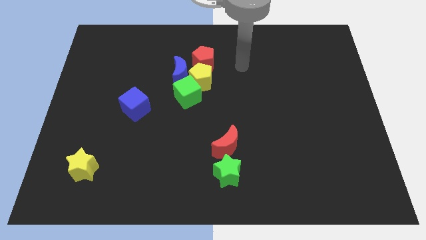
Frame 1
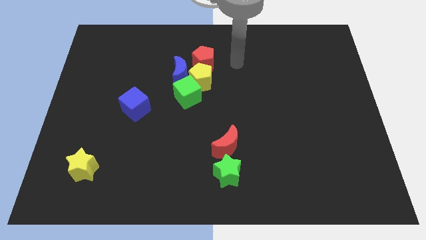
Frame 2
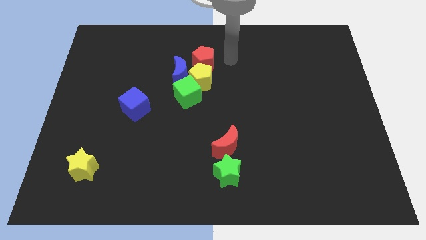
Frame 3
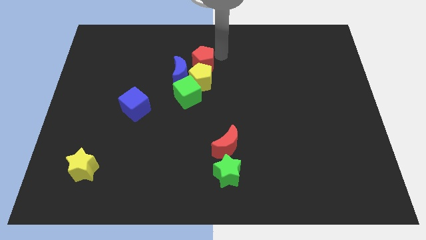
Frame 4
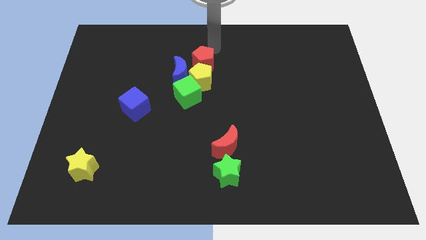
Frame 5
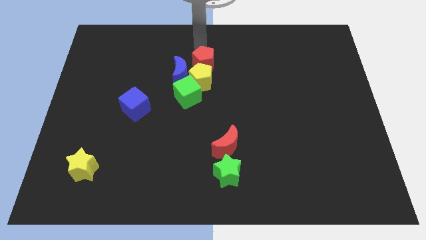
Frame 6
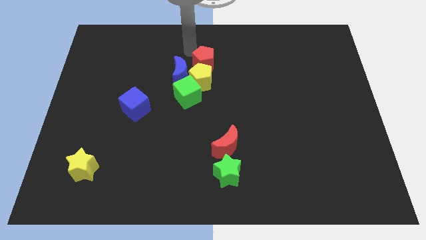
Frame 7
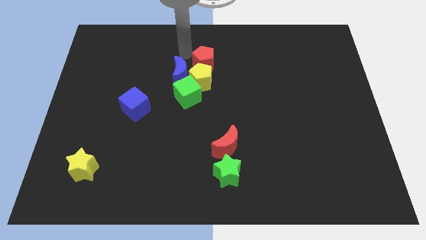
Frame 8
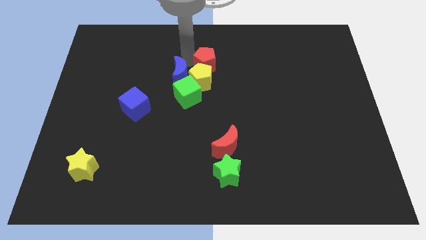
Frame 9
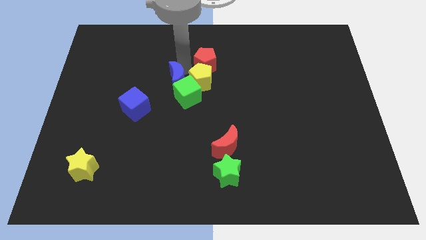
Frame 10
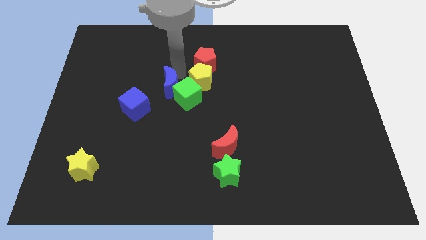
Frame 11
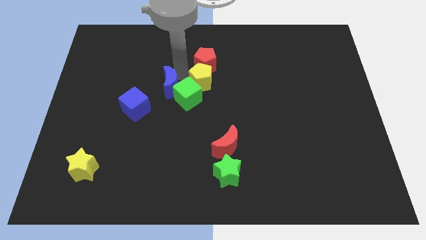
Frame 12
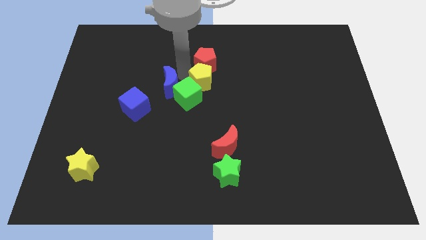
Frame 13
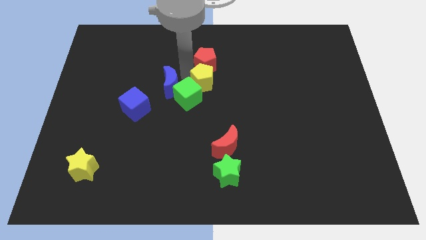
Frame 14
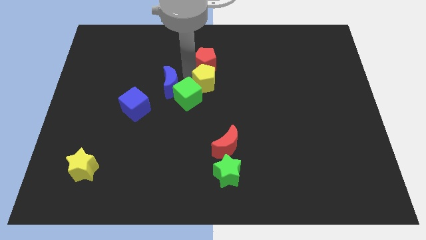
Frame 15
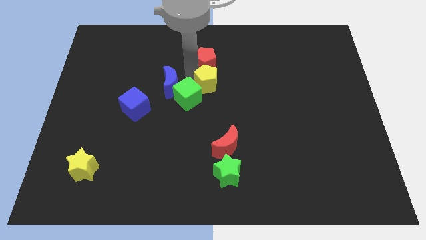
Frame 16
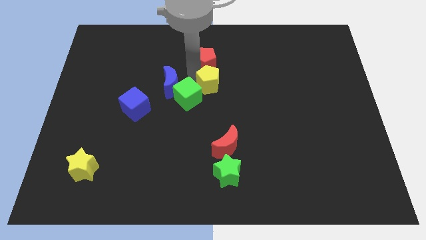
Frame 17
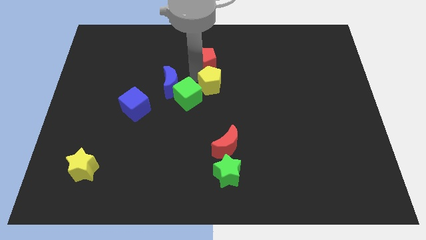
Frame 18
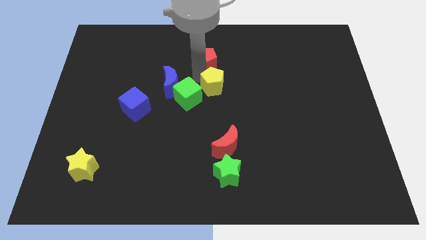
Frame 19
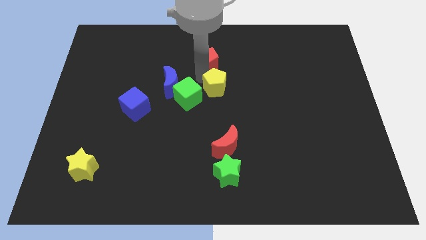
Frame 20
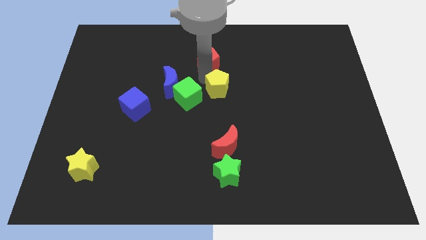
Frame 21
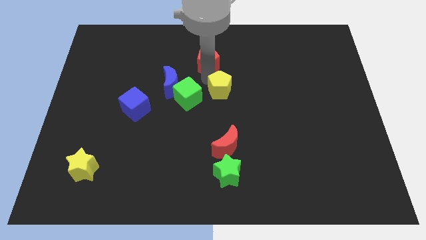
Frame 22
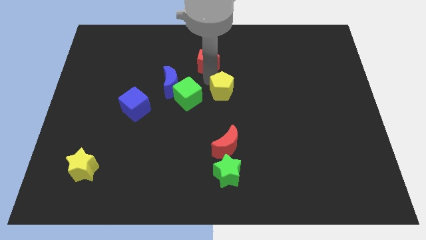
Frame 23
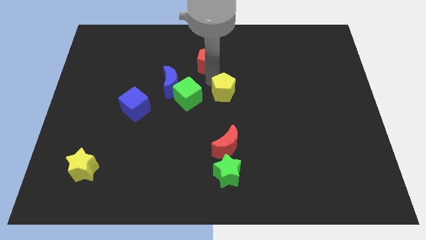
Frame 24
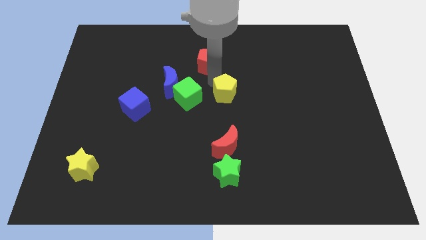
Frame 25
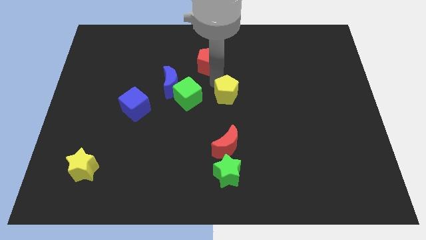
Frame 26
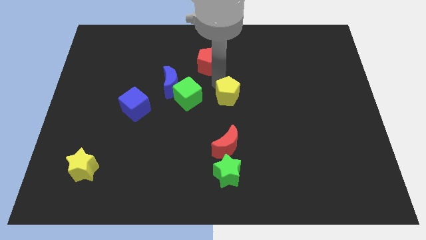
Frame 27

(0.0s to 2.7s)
move the yellow pentagon away from the blue moon, green cube, and red pentagon

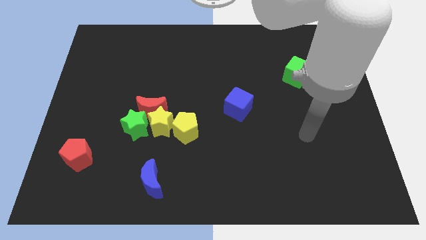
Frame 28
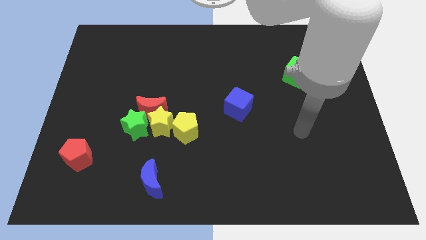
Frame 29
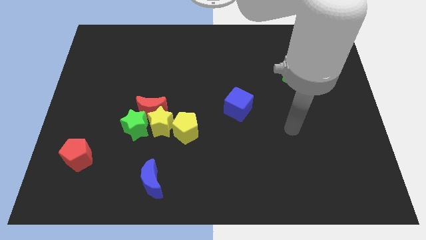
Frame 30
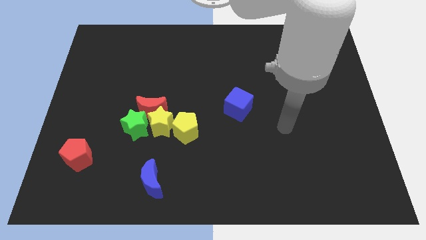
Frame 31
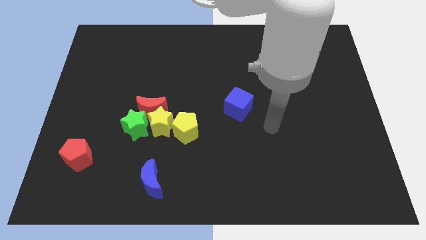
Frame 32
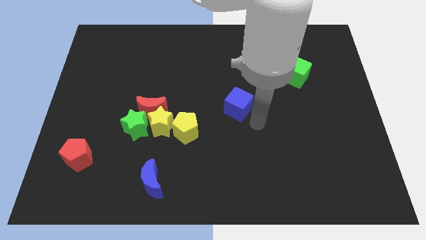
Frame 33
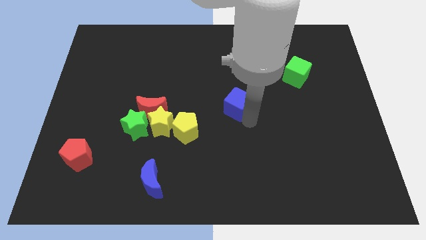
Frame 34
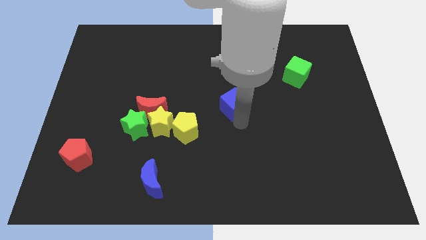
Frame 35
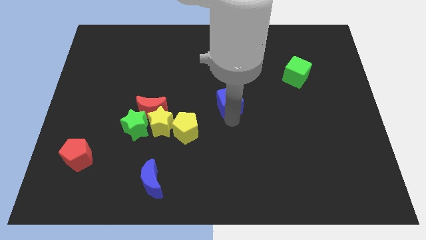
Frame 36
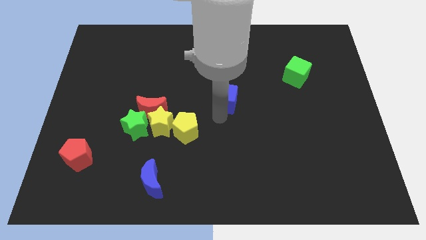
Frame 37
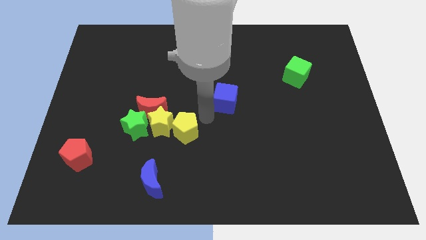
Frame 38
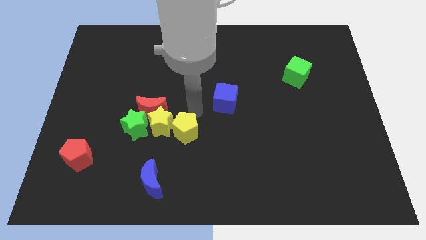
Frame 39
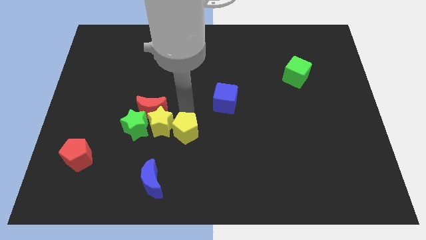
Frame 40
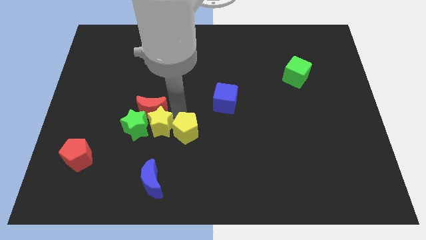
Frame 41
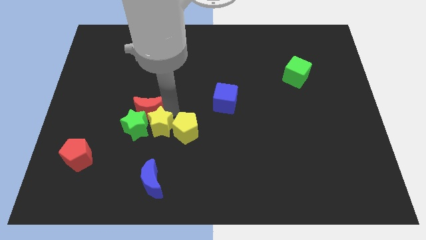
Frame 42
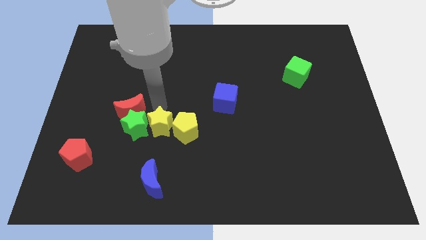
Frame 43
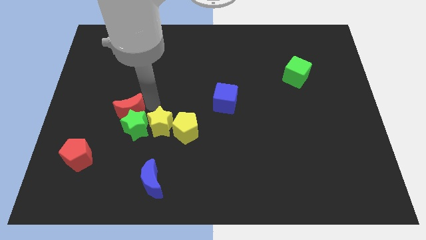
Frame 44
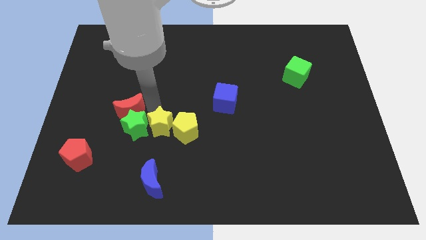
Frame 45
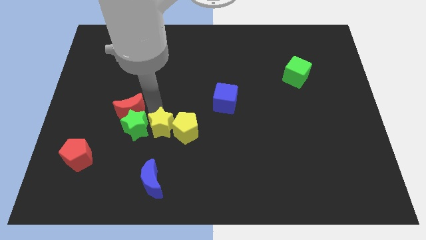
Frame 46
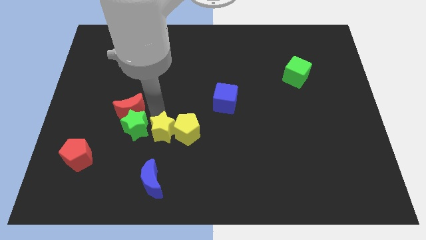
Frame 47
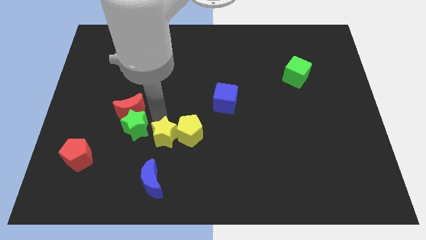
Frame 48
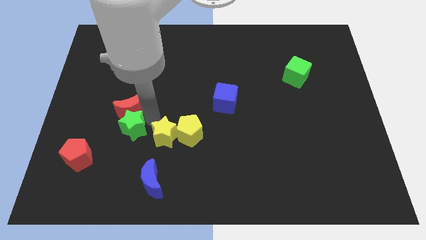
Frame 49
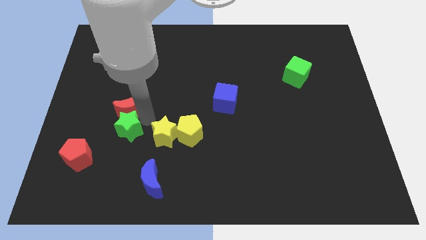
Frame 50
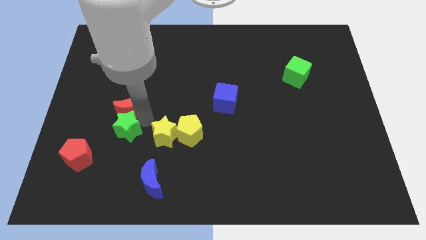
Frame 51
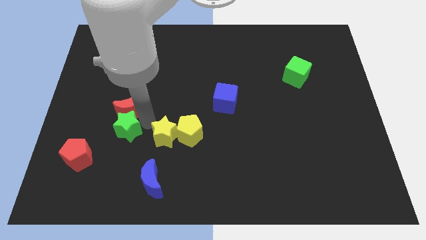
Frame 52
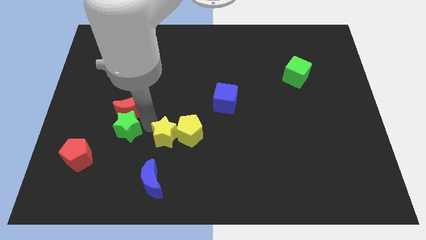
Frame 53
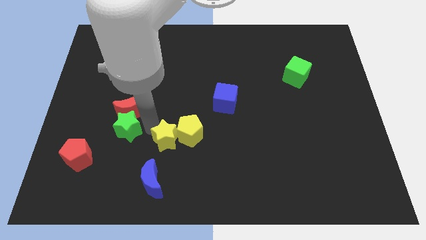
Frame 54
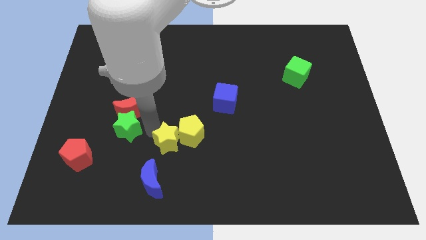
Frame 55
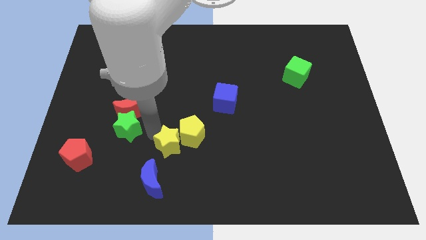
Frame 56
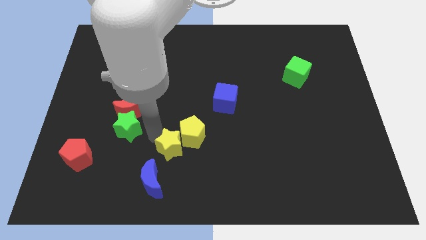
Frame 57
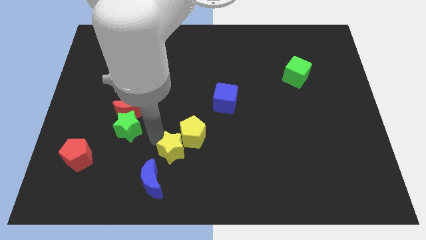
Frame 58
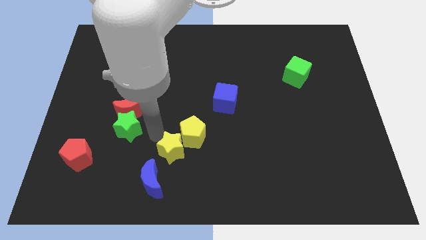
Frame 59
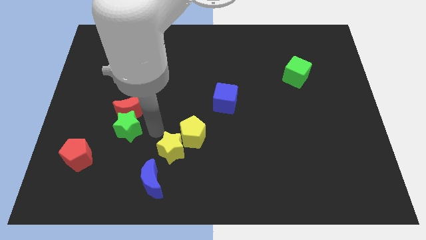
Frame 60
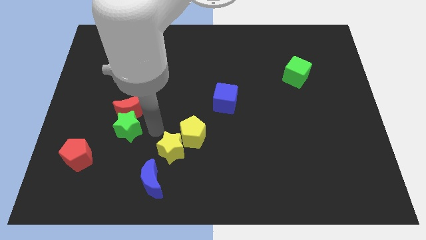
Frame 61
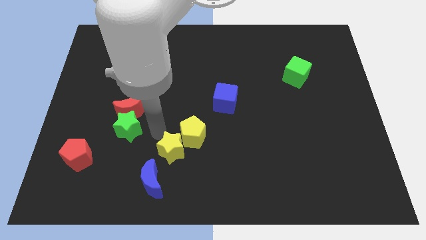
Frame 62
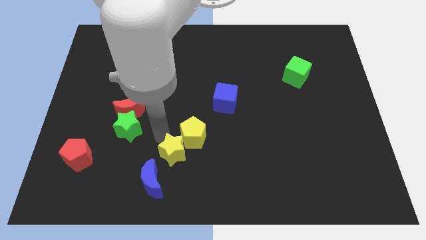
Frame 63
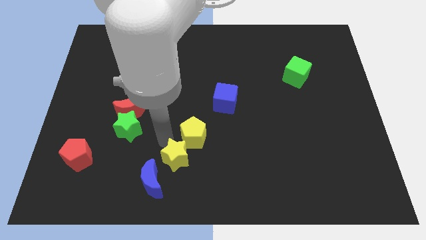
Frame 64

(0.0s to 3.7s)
move the yellow star away from the red moon, yellow pentagon, and green star

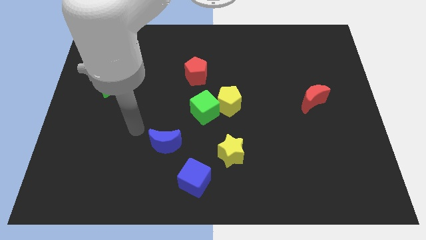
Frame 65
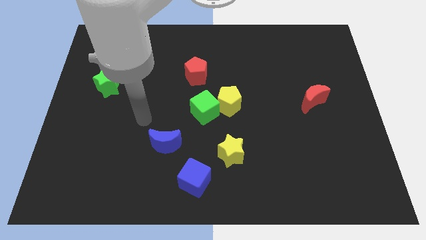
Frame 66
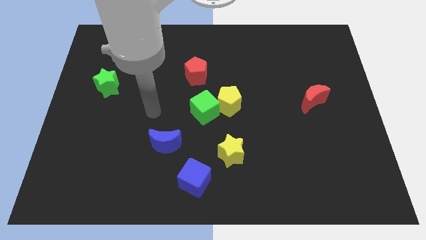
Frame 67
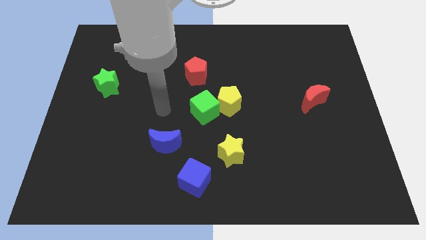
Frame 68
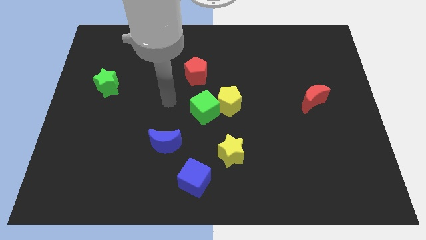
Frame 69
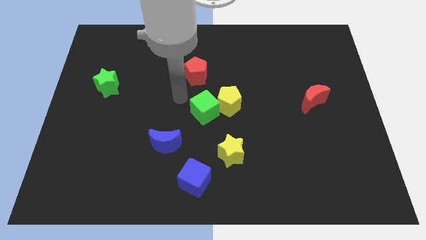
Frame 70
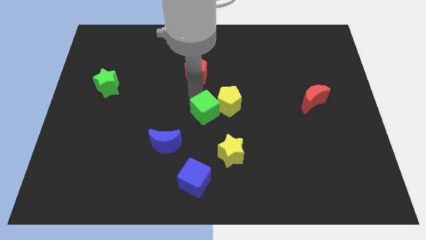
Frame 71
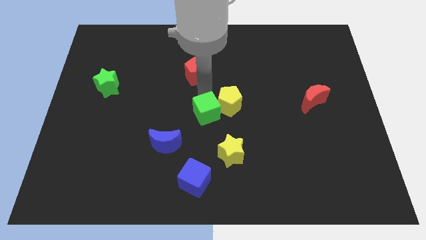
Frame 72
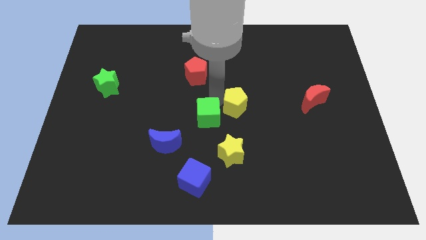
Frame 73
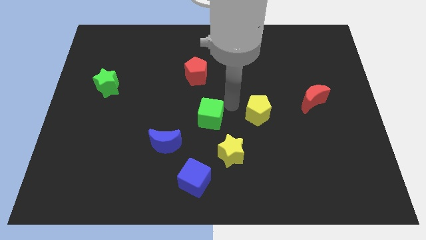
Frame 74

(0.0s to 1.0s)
separate the green cube from the yellow pentagon

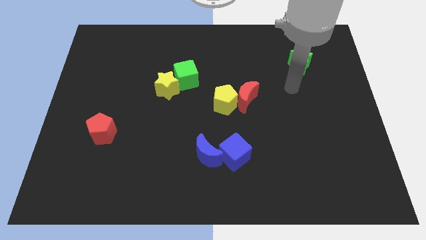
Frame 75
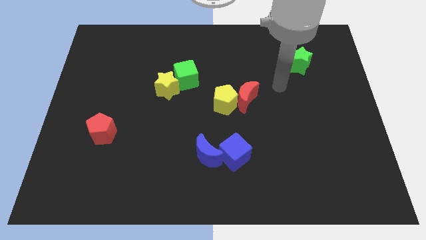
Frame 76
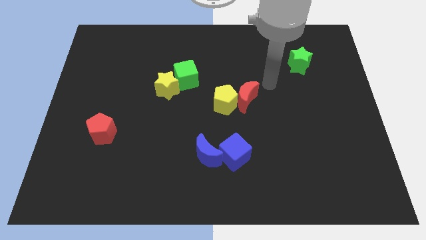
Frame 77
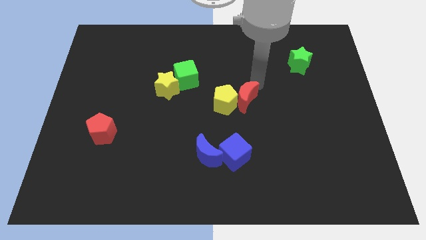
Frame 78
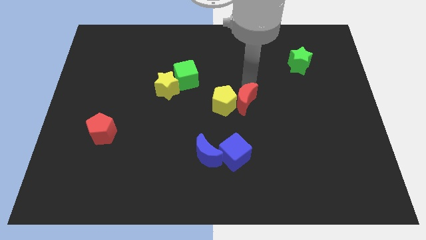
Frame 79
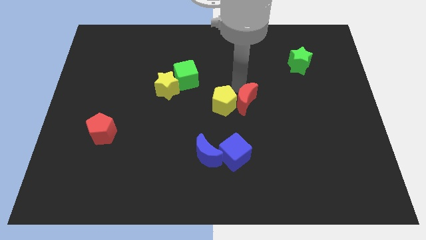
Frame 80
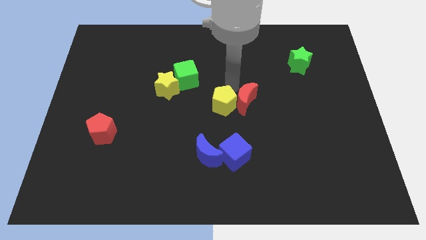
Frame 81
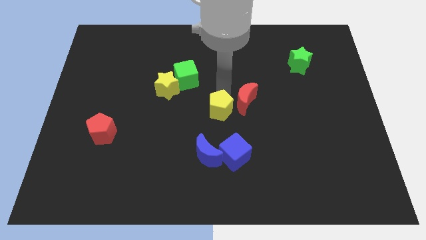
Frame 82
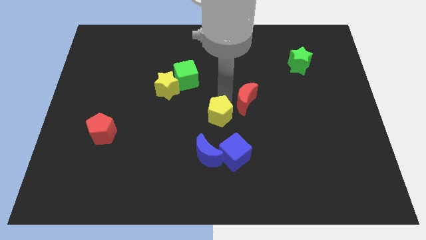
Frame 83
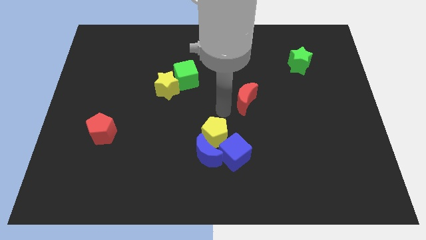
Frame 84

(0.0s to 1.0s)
separate the red moon from the yellow pentagon

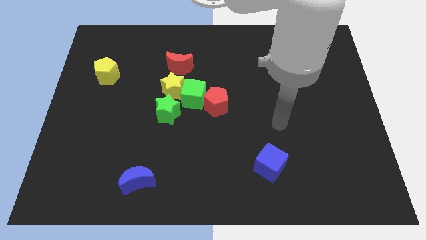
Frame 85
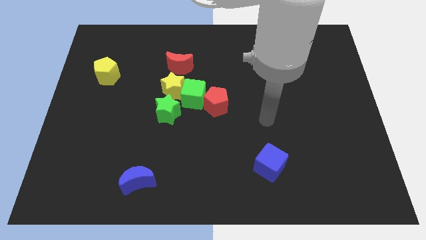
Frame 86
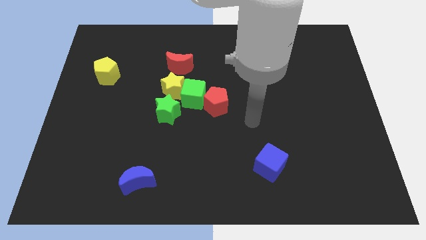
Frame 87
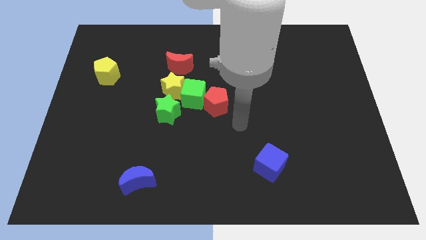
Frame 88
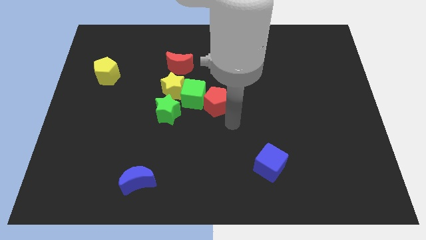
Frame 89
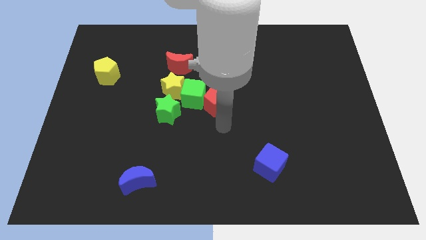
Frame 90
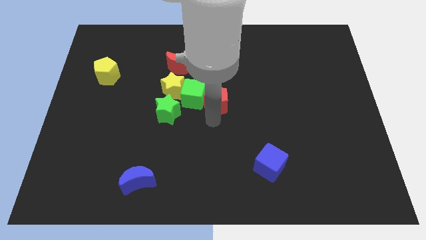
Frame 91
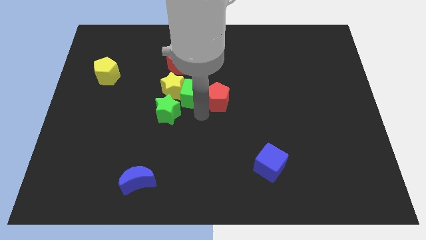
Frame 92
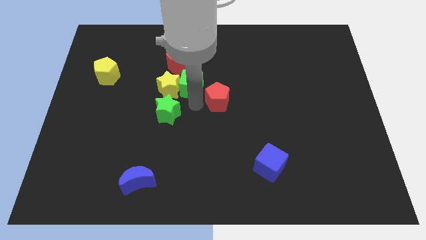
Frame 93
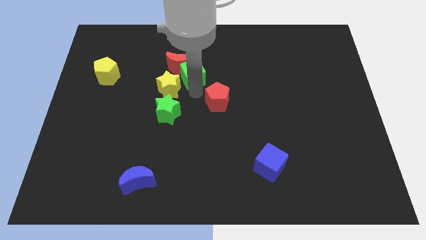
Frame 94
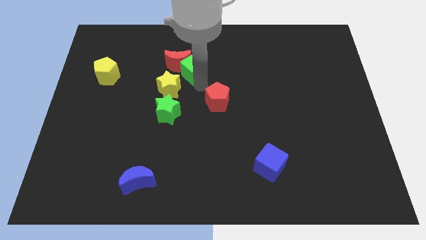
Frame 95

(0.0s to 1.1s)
move the red pentagon away from the green cube
